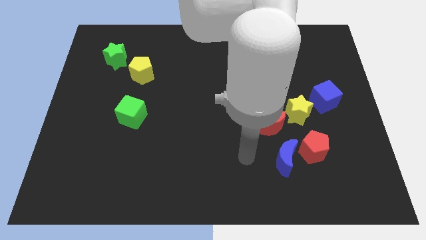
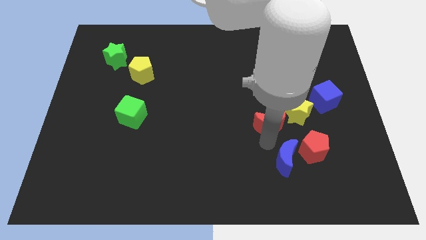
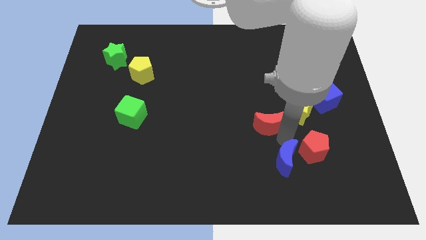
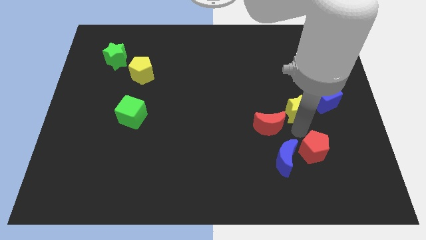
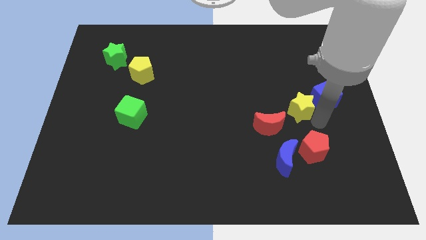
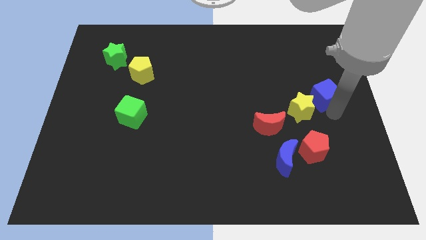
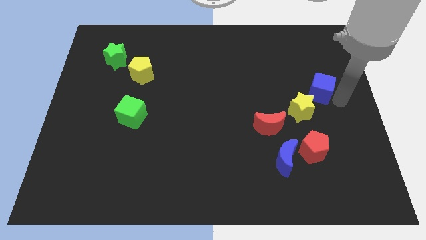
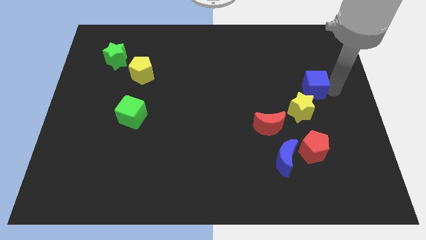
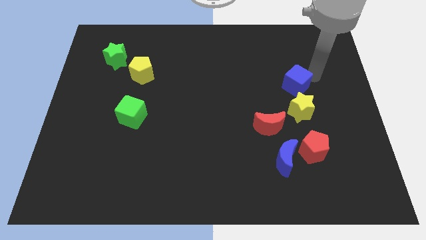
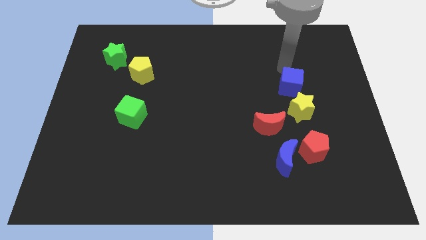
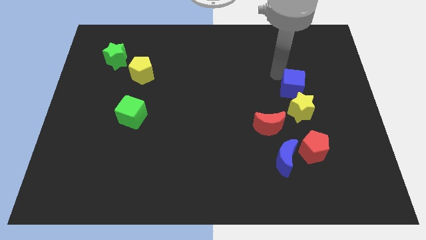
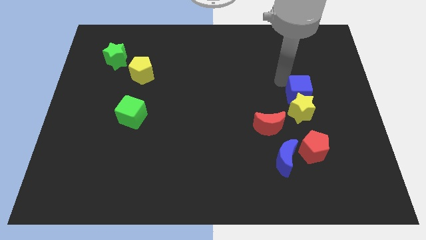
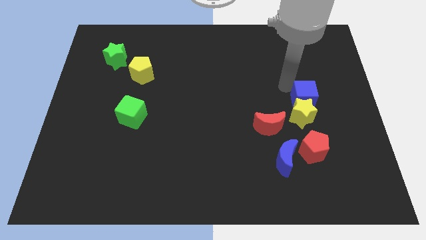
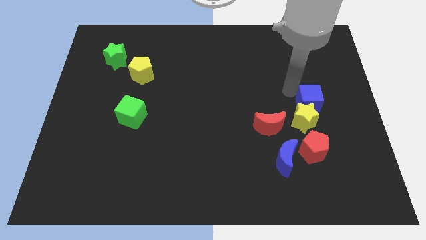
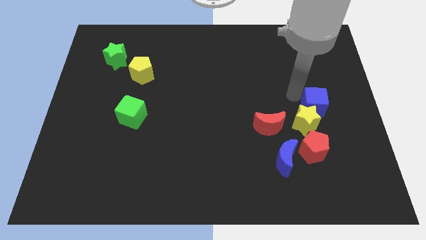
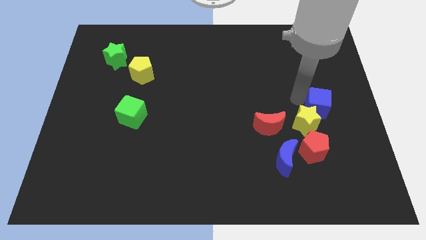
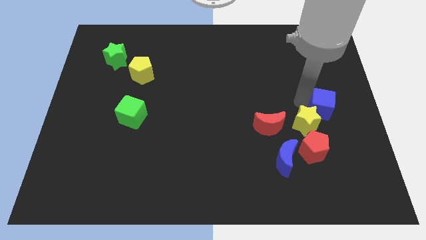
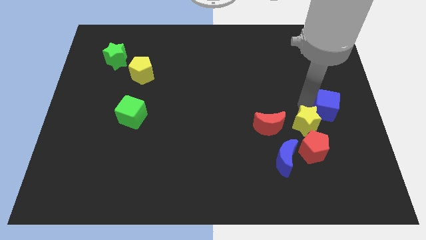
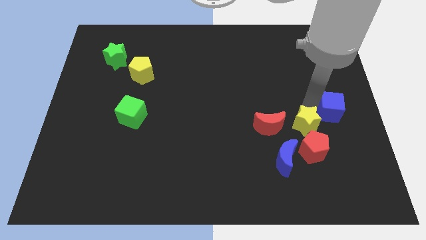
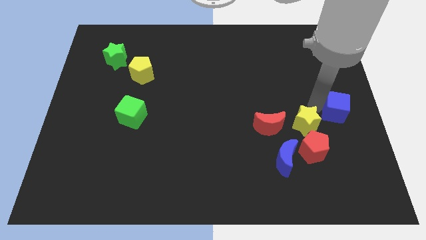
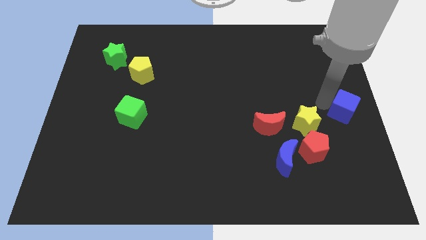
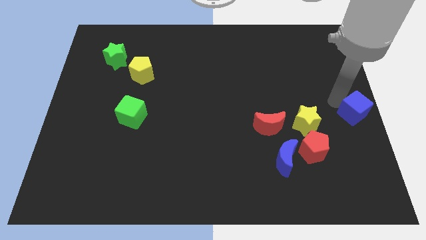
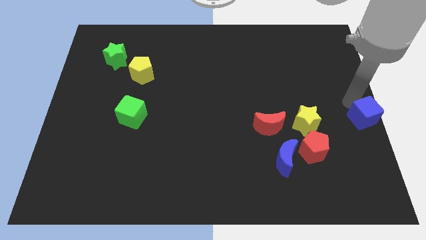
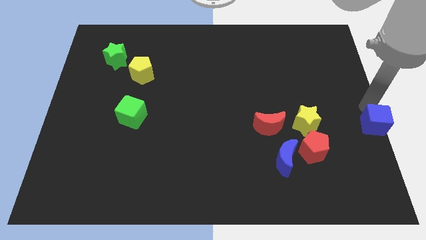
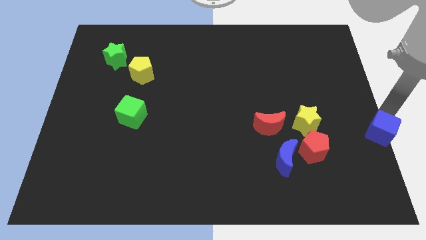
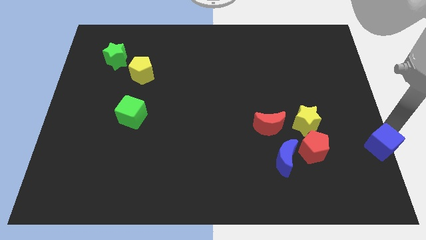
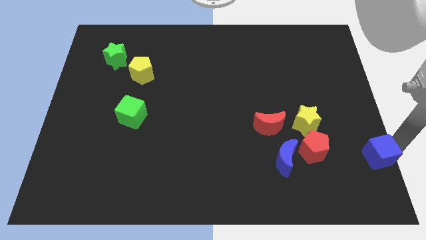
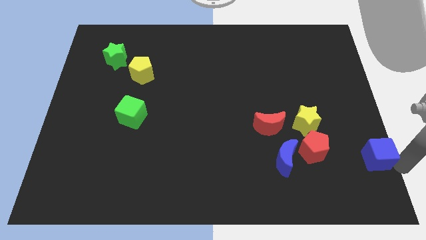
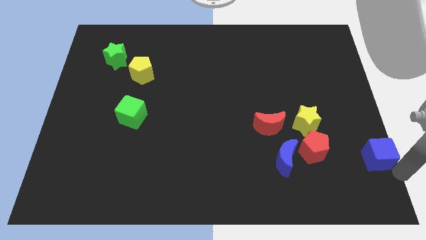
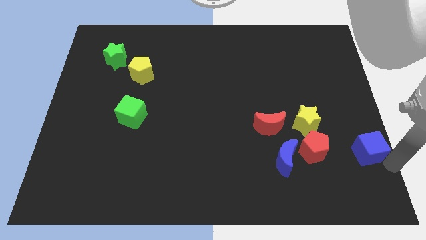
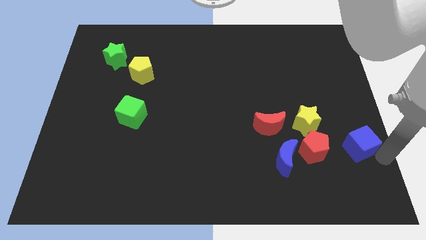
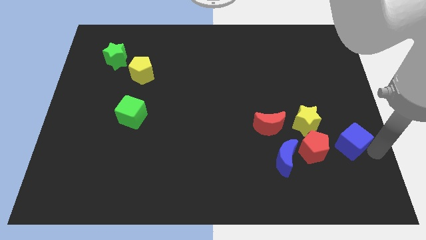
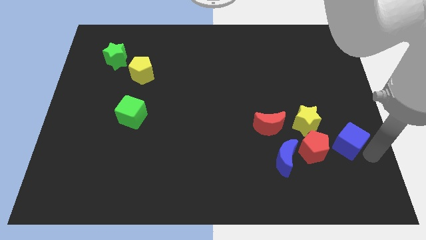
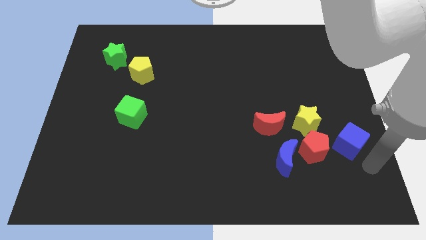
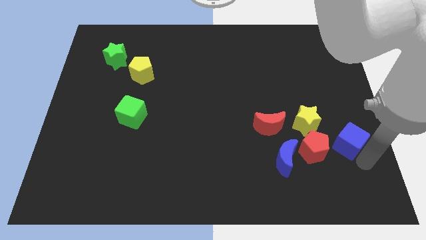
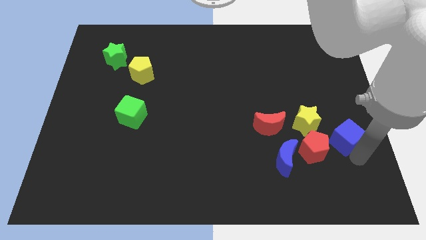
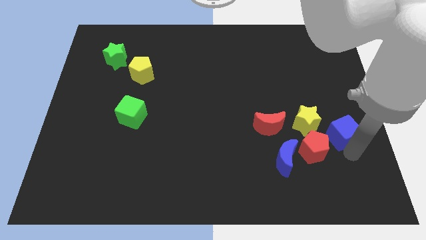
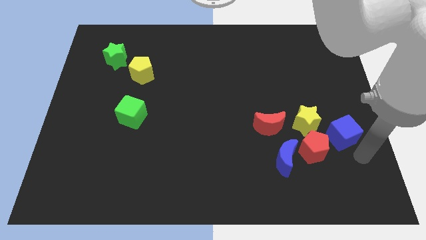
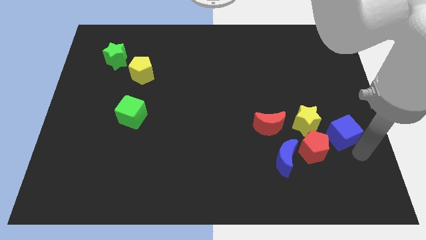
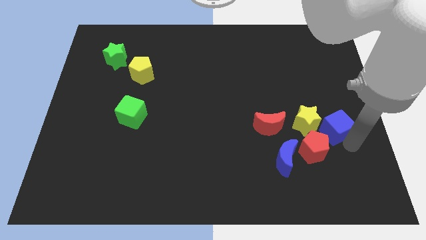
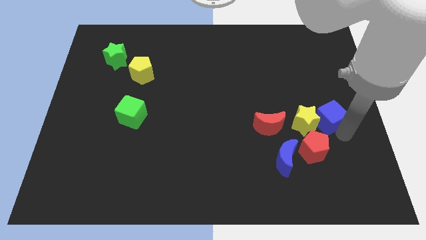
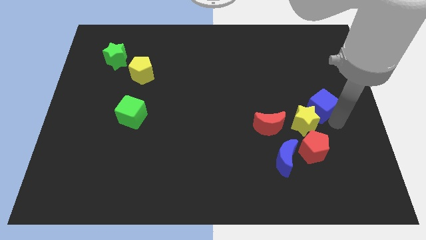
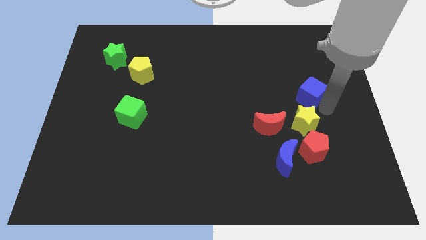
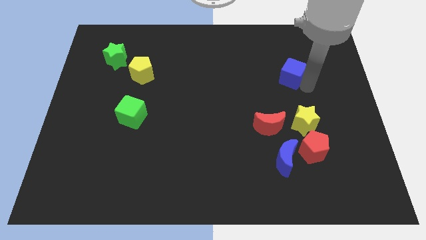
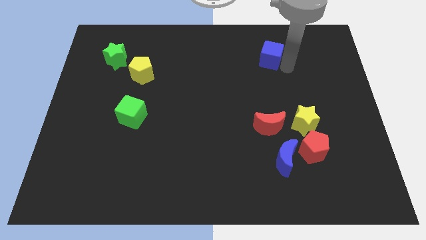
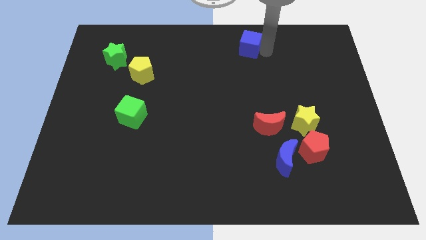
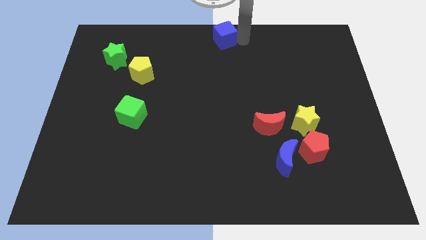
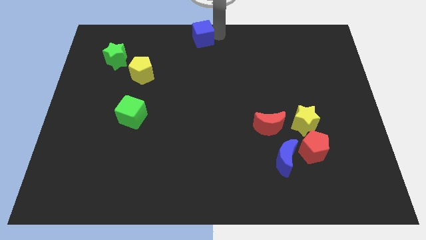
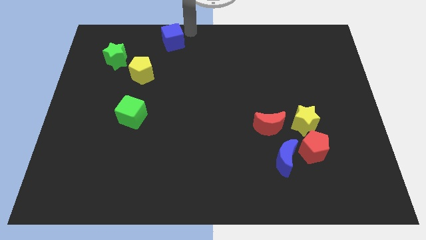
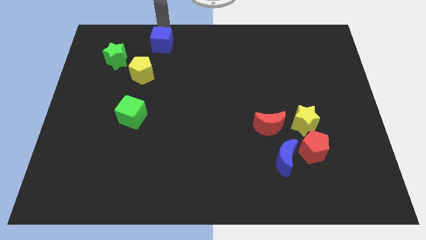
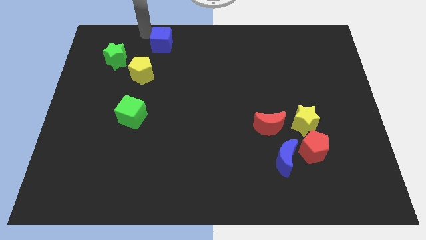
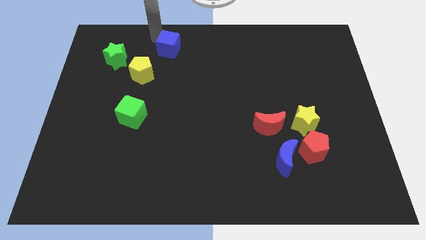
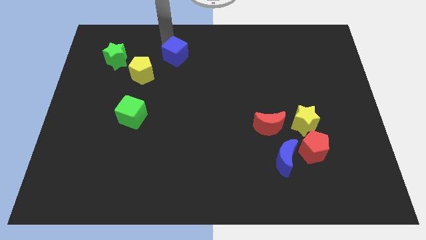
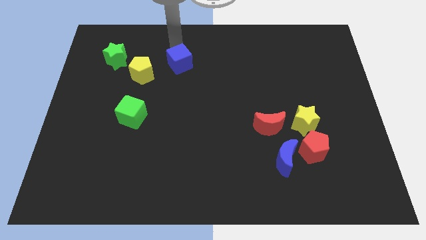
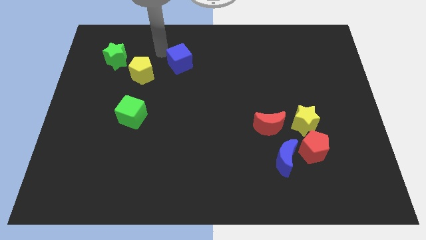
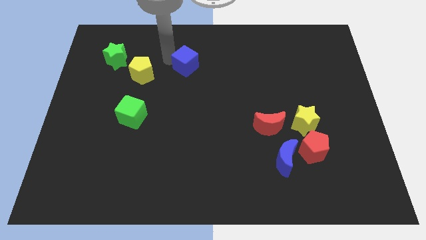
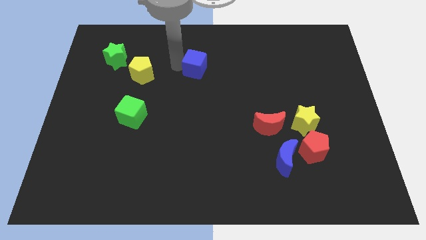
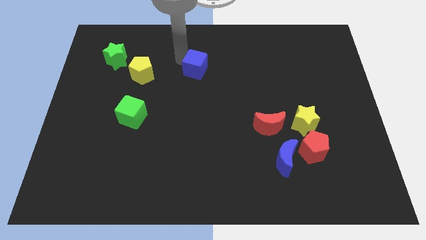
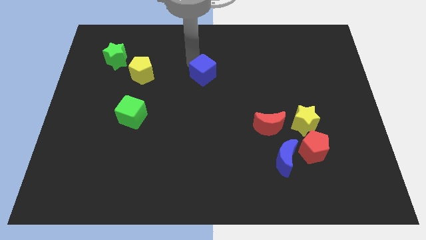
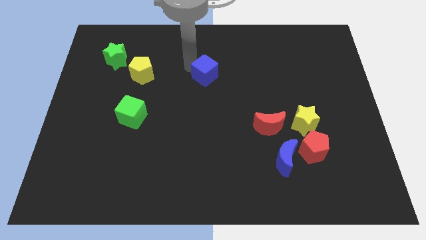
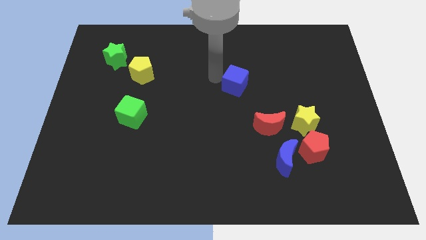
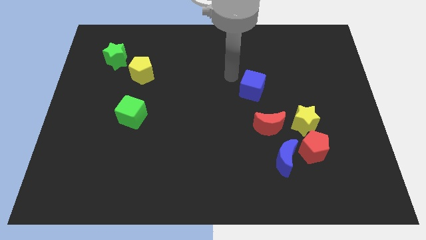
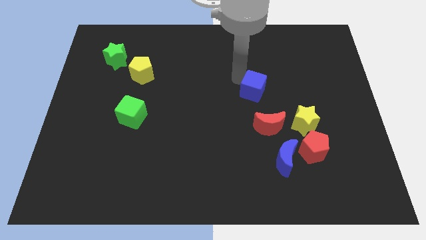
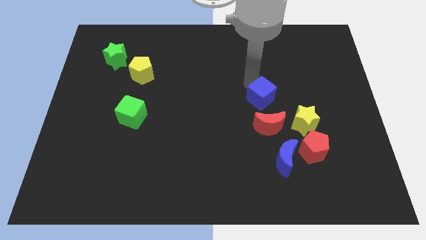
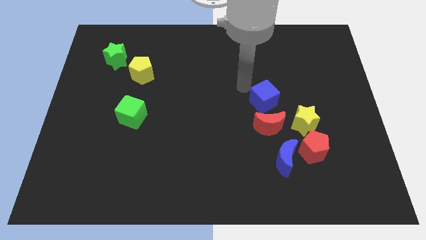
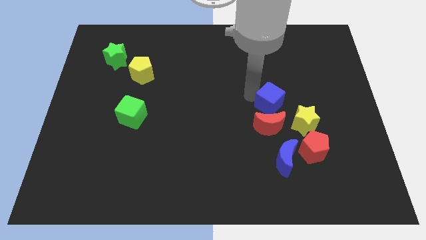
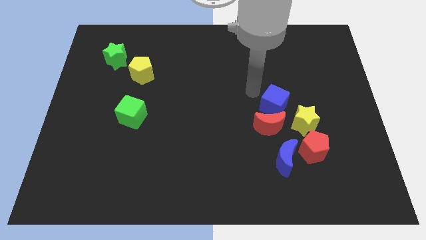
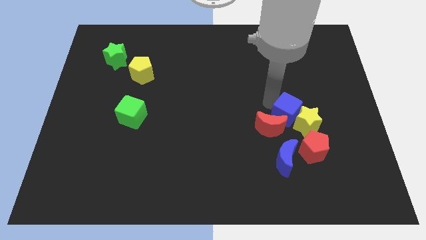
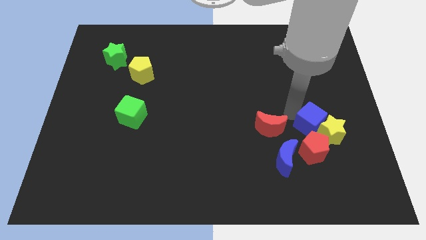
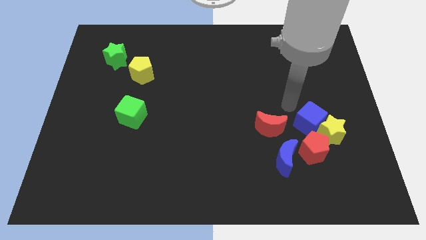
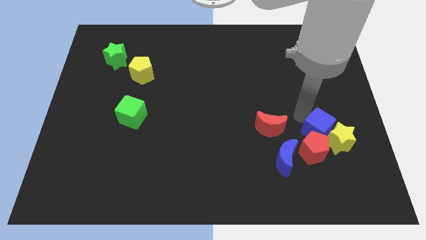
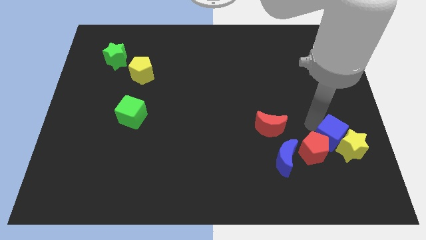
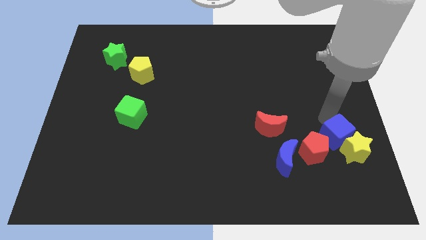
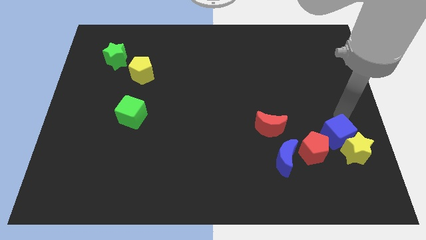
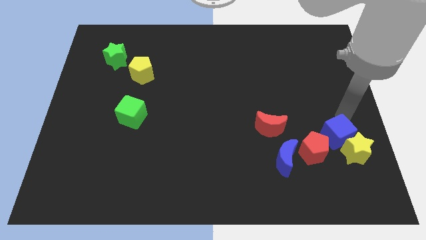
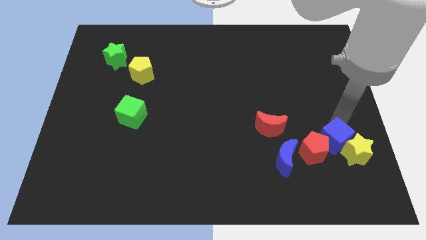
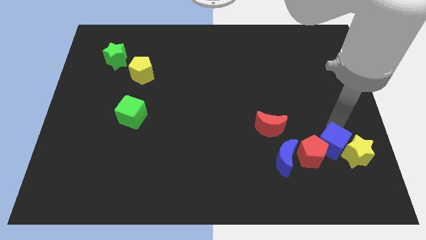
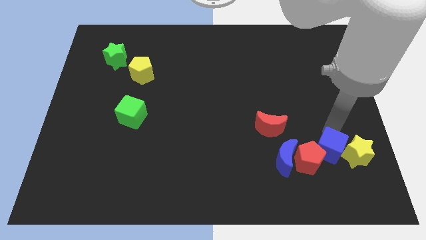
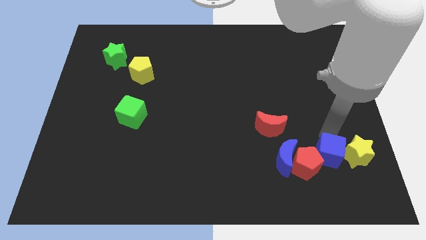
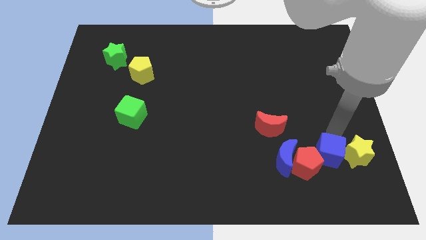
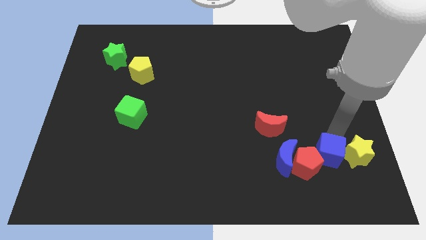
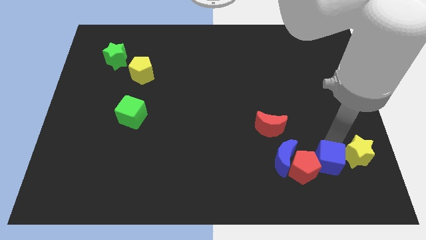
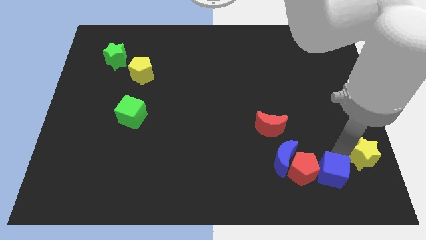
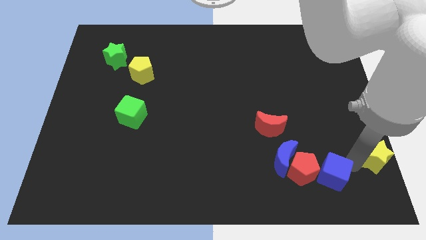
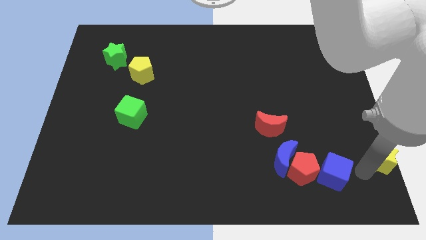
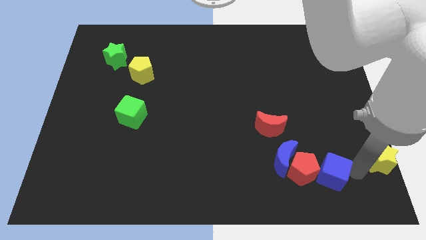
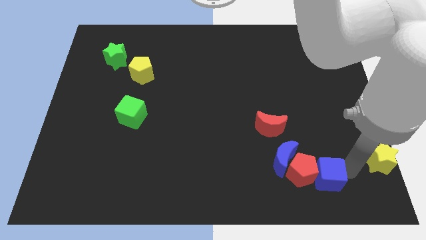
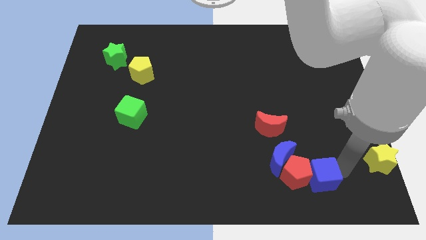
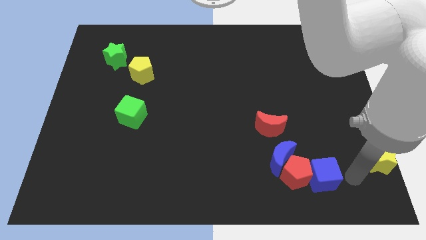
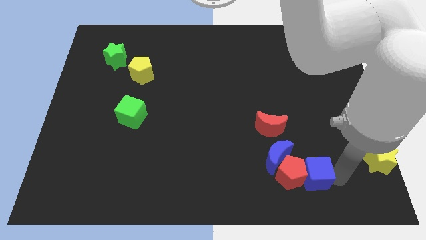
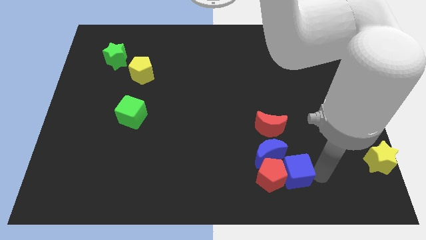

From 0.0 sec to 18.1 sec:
push the blue cube to the bottom side of the red moon
